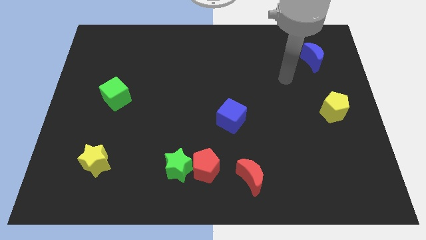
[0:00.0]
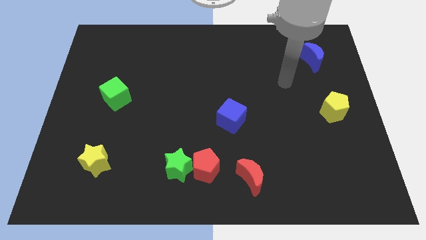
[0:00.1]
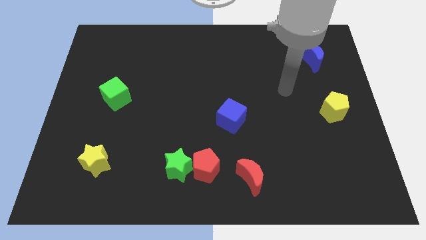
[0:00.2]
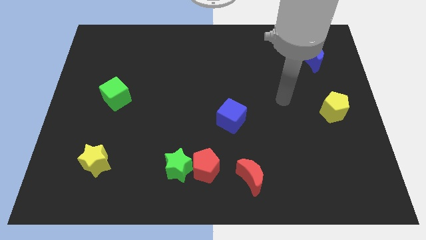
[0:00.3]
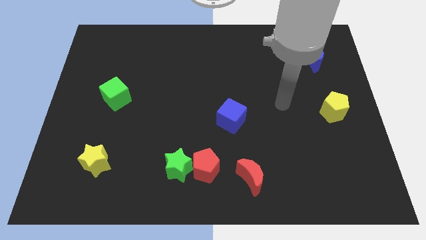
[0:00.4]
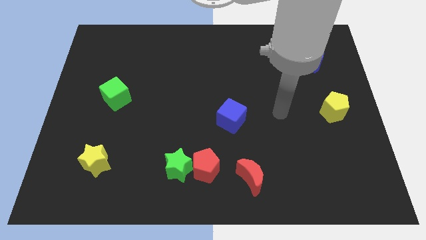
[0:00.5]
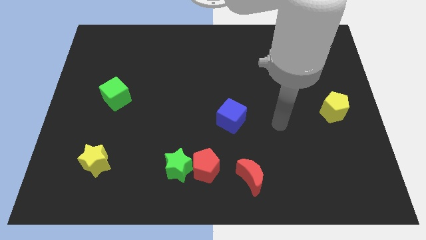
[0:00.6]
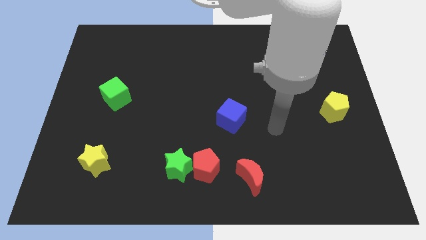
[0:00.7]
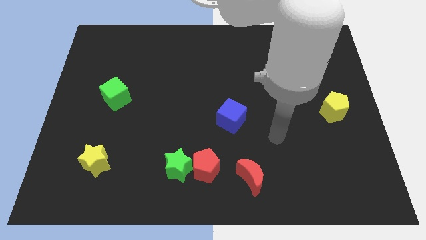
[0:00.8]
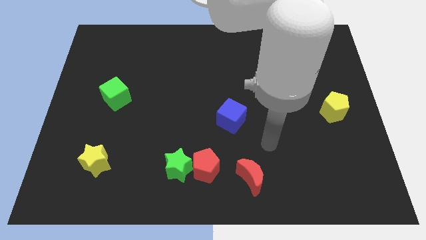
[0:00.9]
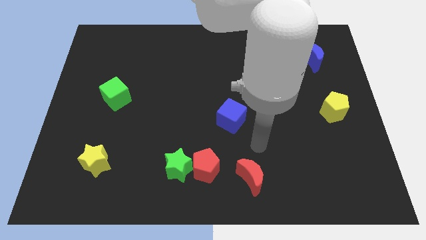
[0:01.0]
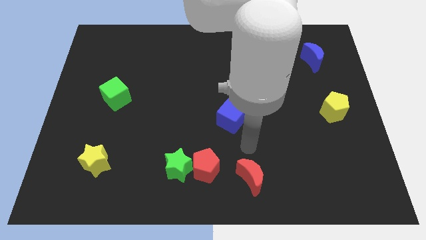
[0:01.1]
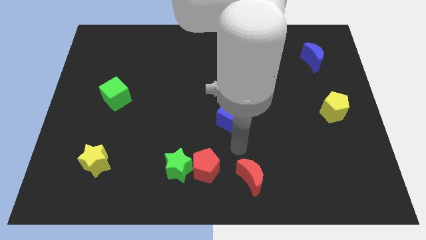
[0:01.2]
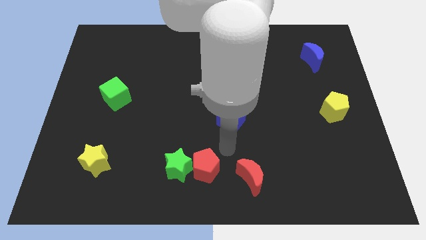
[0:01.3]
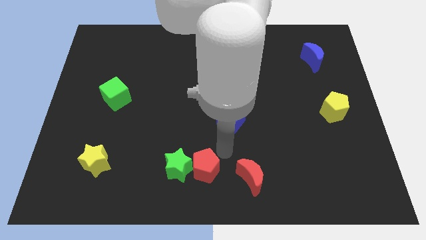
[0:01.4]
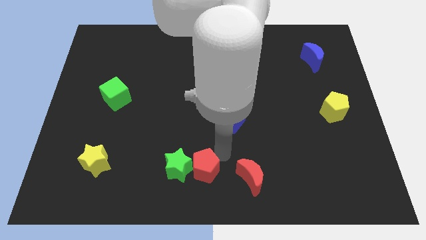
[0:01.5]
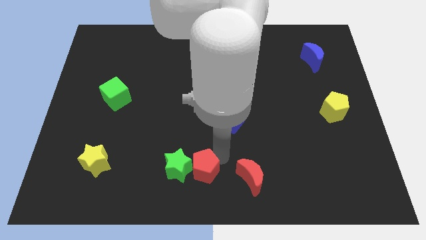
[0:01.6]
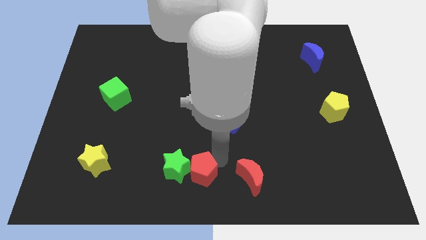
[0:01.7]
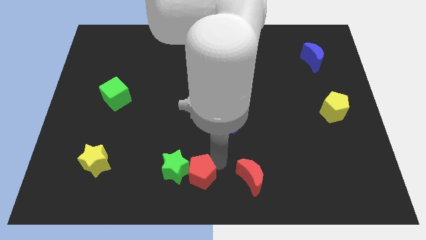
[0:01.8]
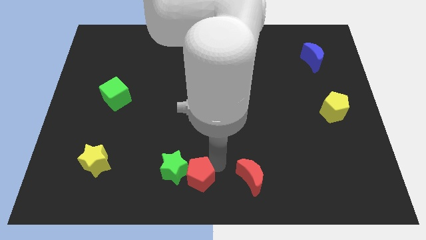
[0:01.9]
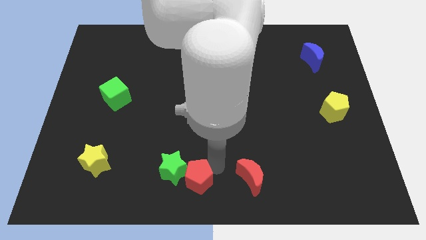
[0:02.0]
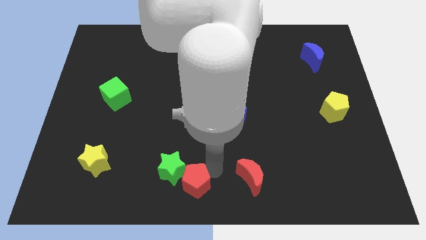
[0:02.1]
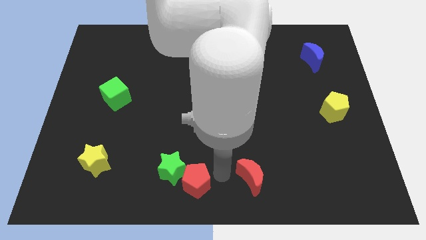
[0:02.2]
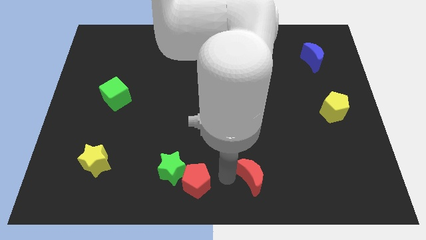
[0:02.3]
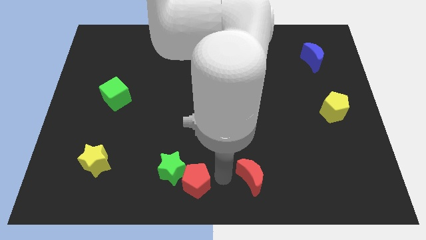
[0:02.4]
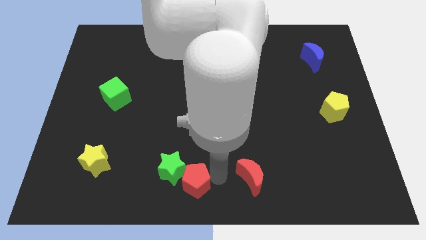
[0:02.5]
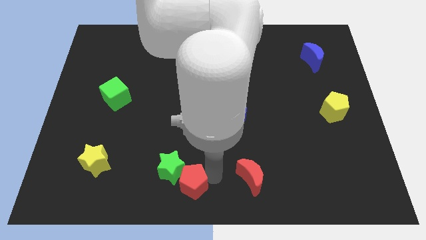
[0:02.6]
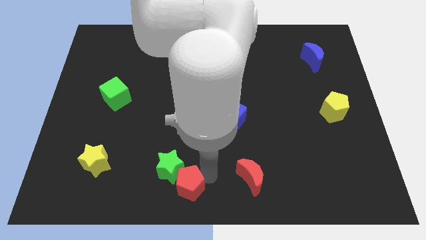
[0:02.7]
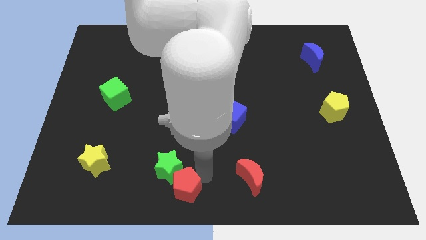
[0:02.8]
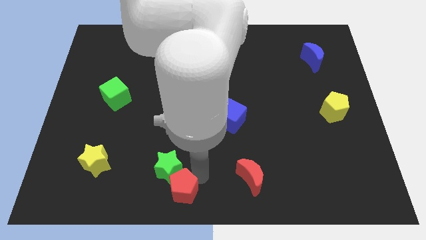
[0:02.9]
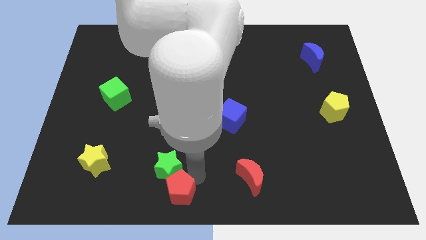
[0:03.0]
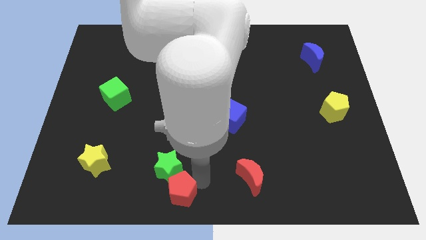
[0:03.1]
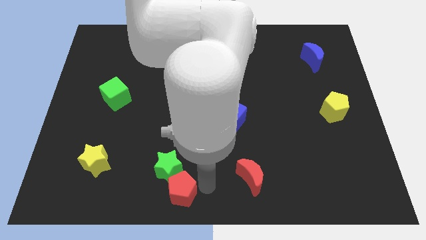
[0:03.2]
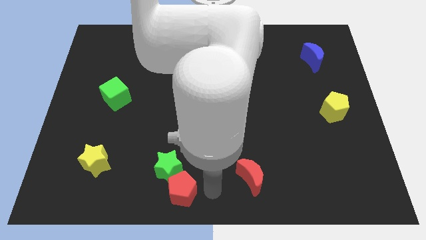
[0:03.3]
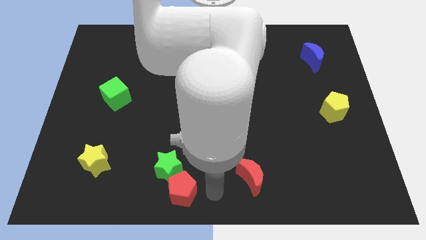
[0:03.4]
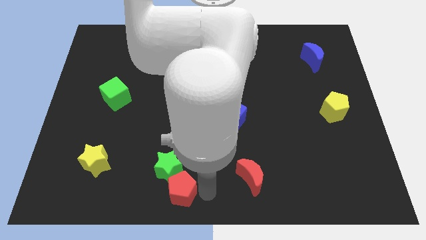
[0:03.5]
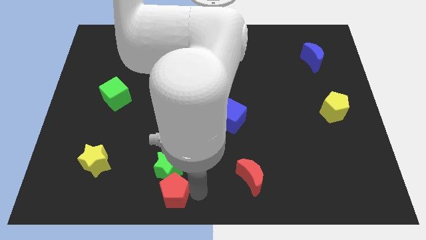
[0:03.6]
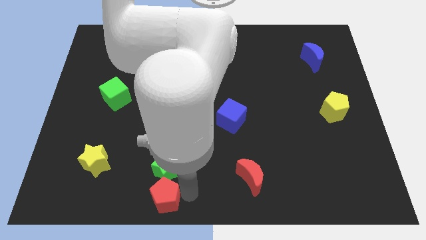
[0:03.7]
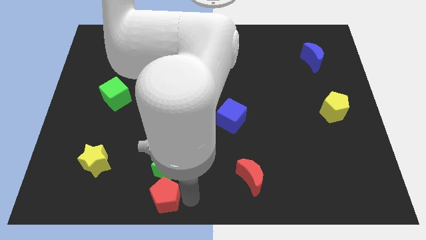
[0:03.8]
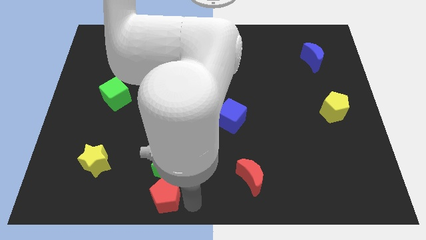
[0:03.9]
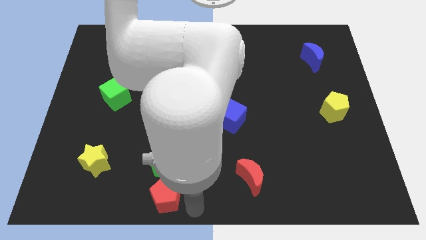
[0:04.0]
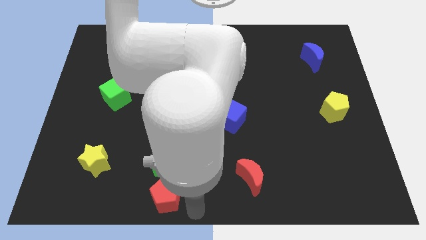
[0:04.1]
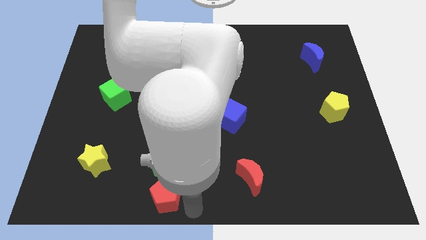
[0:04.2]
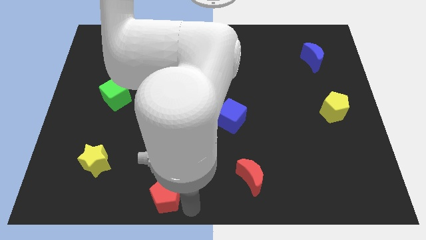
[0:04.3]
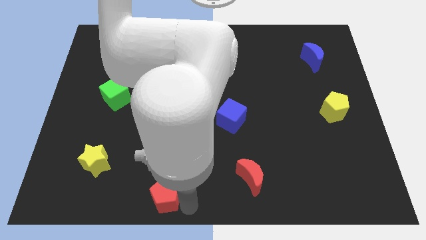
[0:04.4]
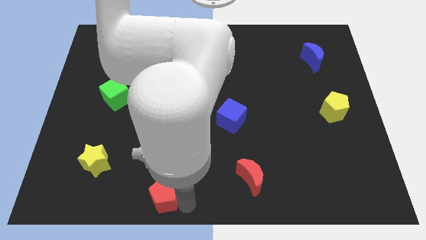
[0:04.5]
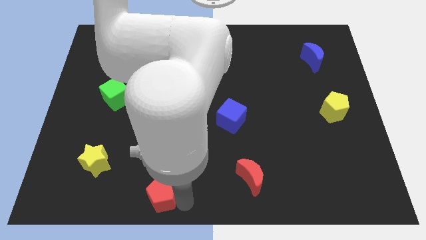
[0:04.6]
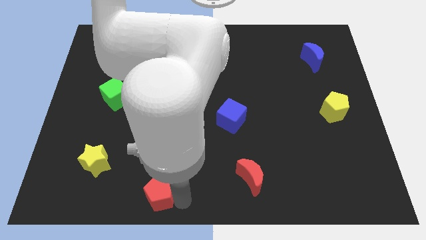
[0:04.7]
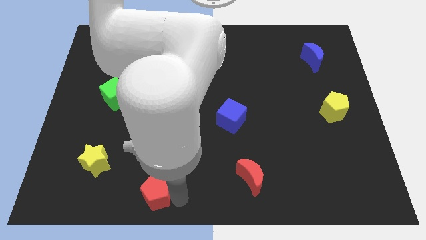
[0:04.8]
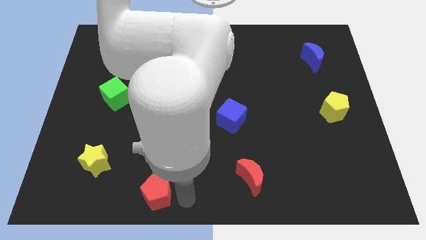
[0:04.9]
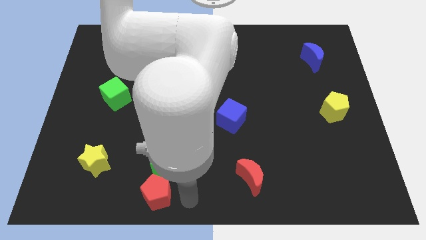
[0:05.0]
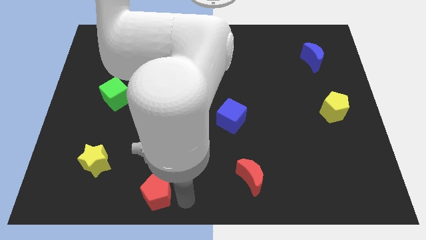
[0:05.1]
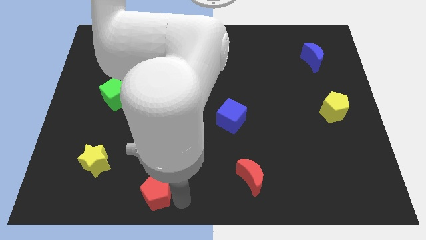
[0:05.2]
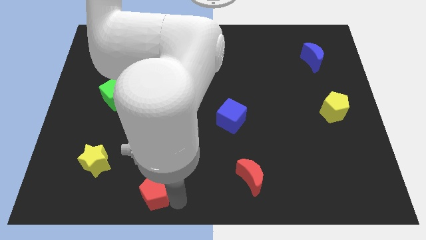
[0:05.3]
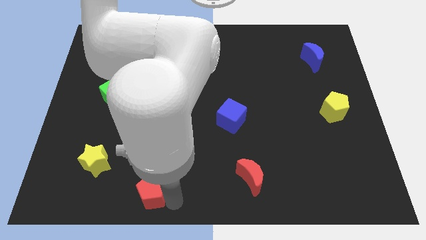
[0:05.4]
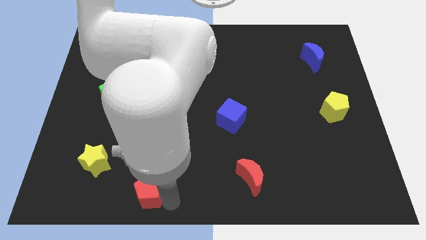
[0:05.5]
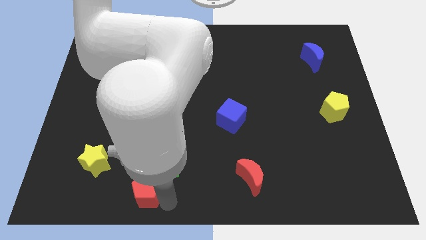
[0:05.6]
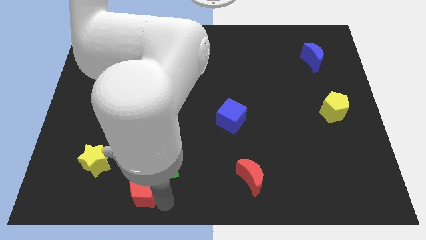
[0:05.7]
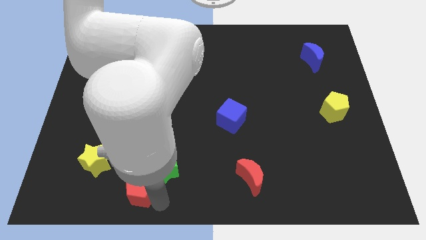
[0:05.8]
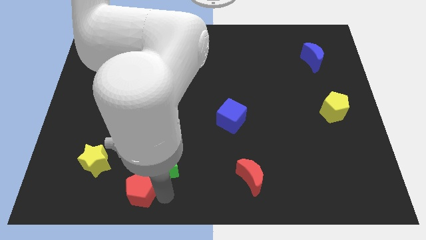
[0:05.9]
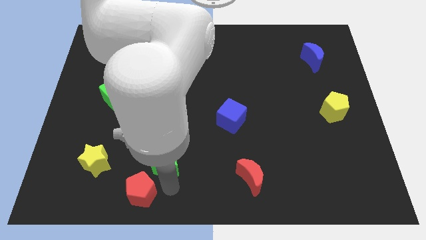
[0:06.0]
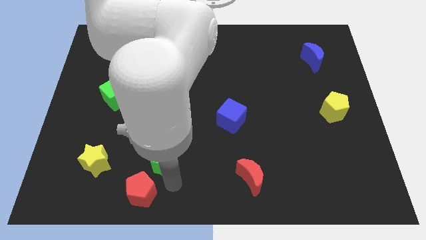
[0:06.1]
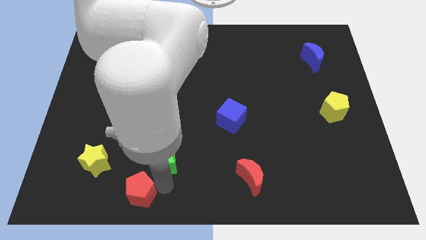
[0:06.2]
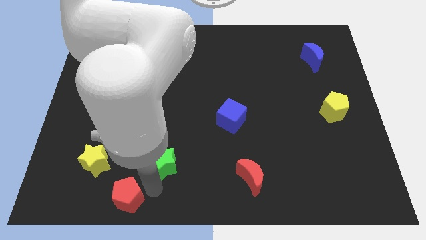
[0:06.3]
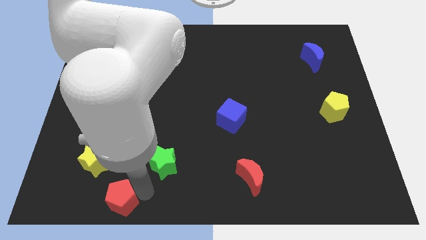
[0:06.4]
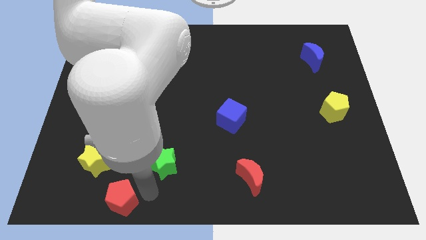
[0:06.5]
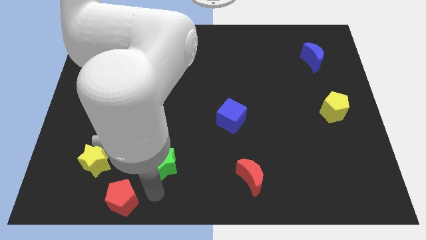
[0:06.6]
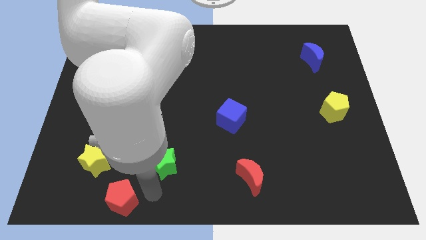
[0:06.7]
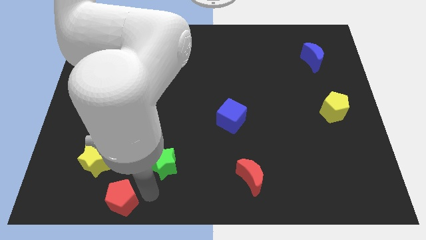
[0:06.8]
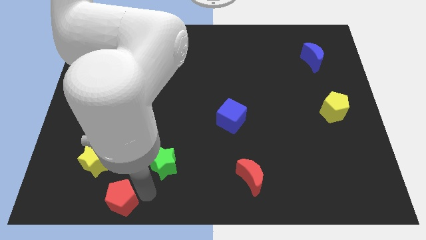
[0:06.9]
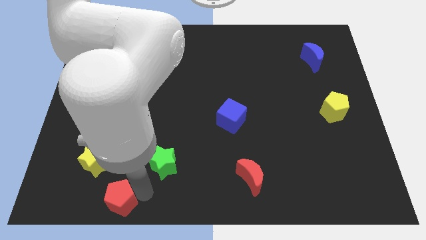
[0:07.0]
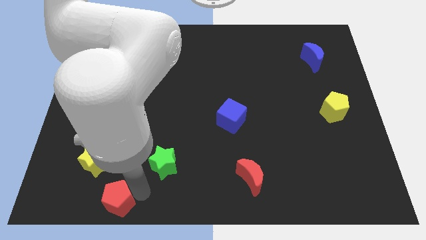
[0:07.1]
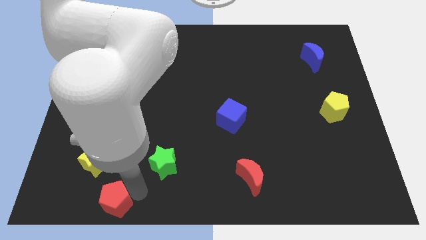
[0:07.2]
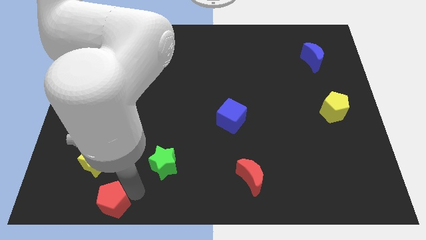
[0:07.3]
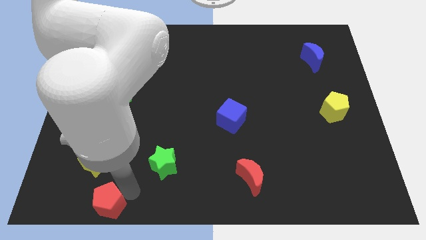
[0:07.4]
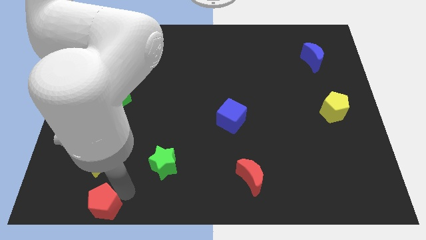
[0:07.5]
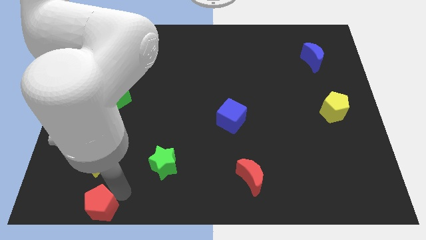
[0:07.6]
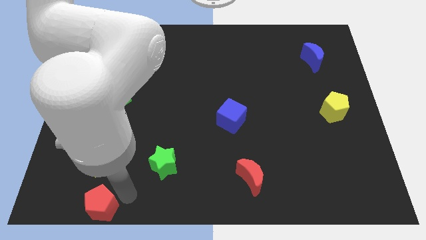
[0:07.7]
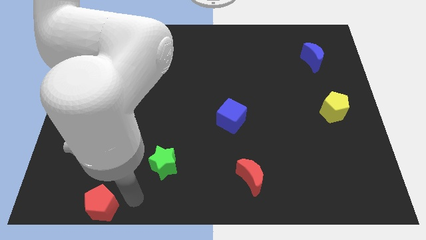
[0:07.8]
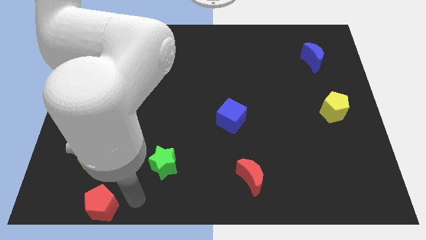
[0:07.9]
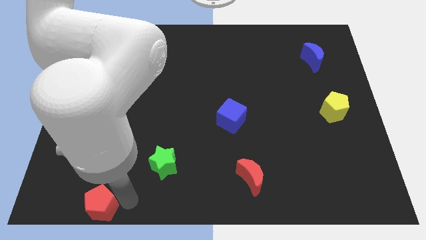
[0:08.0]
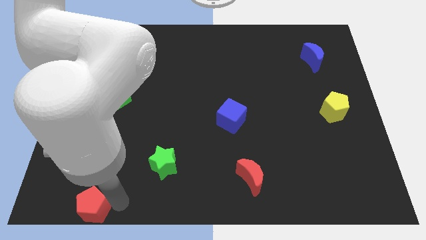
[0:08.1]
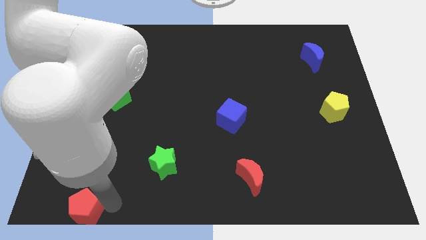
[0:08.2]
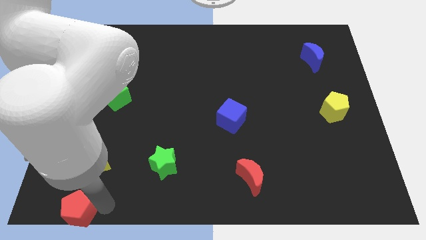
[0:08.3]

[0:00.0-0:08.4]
move the red pentagon to the bottom left of the board
